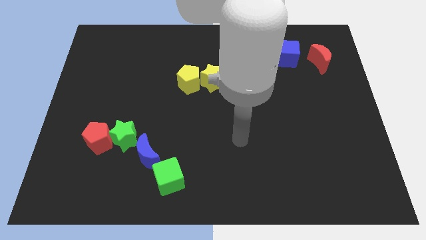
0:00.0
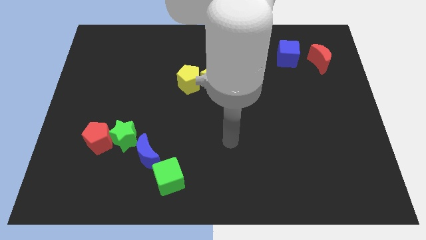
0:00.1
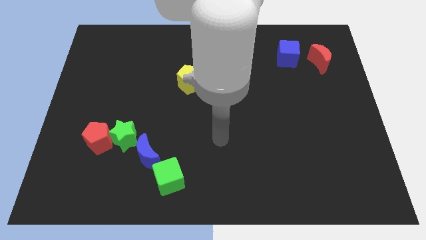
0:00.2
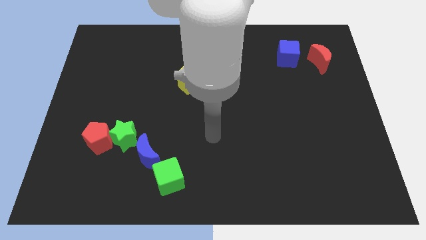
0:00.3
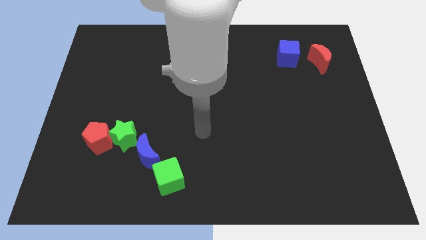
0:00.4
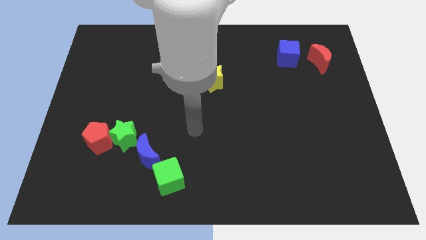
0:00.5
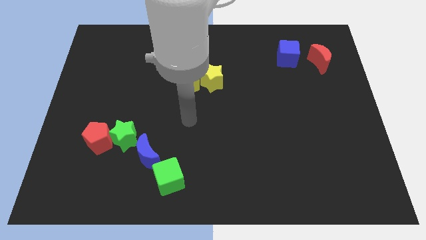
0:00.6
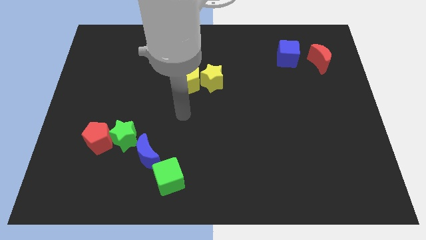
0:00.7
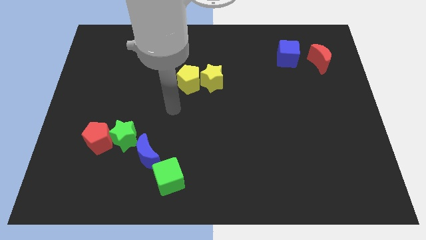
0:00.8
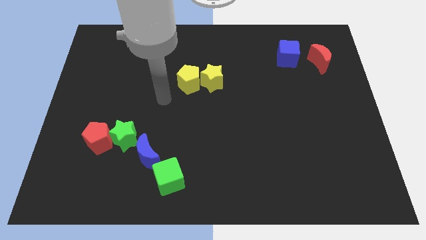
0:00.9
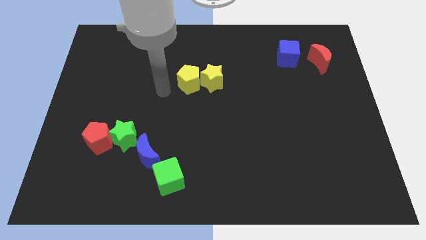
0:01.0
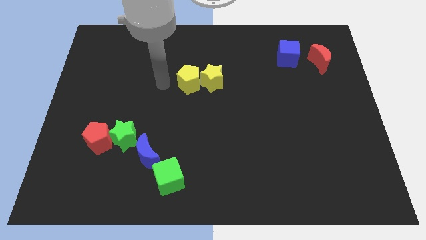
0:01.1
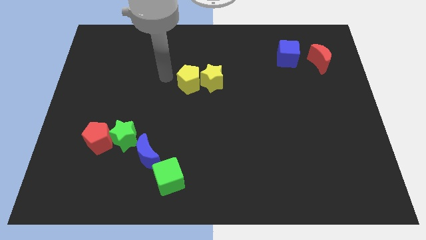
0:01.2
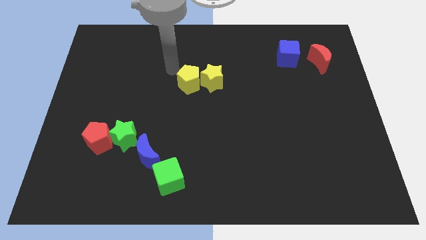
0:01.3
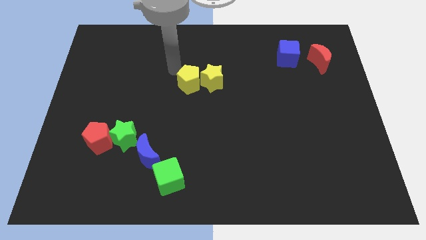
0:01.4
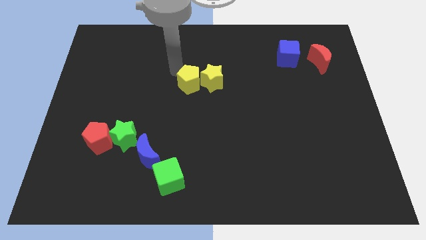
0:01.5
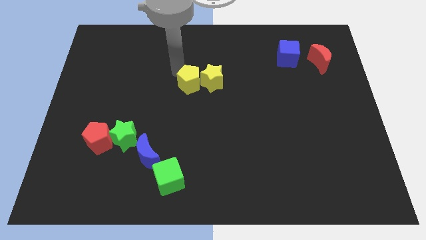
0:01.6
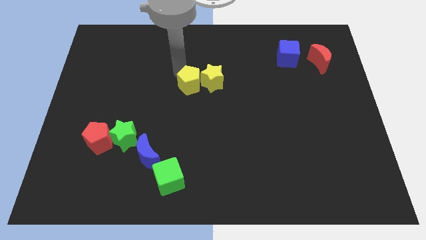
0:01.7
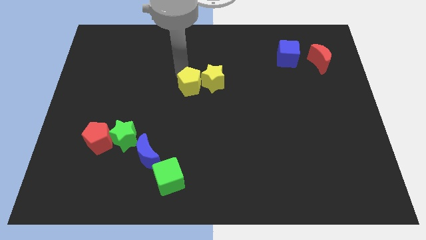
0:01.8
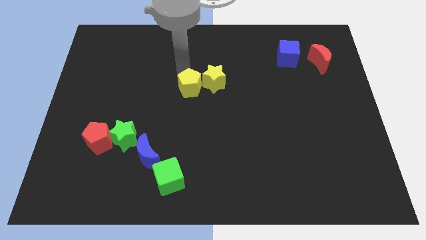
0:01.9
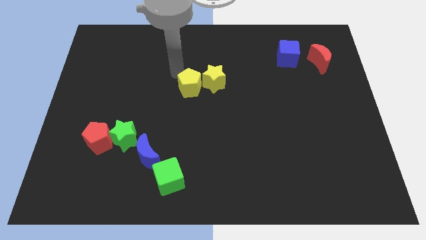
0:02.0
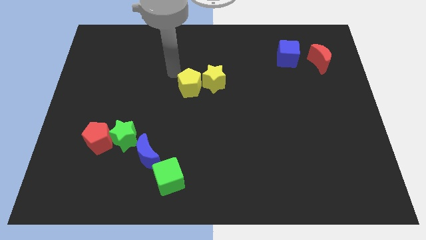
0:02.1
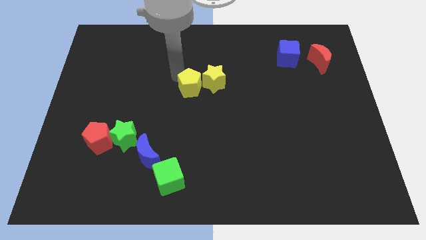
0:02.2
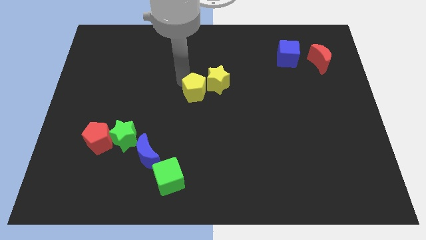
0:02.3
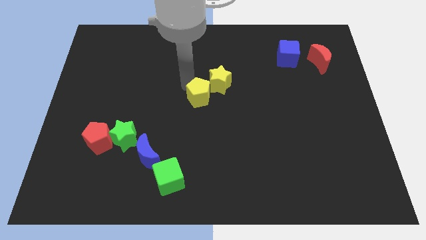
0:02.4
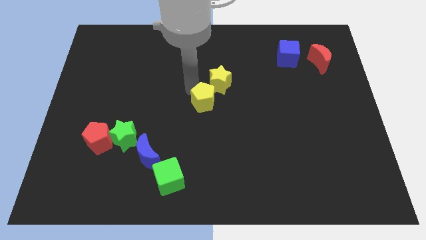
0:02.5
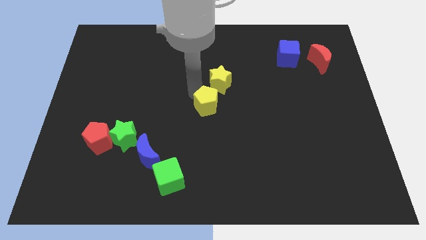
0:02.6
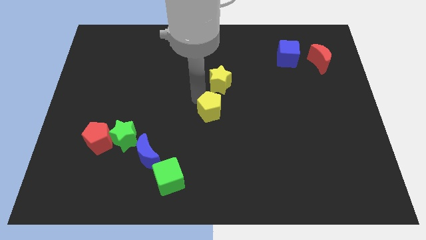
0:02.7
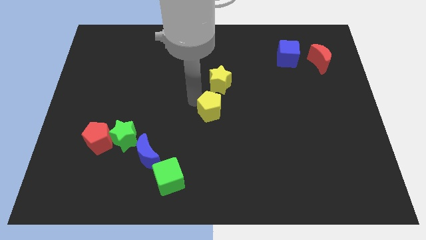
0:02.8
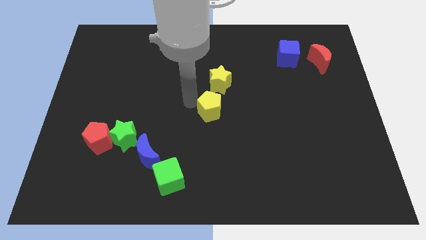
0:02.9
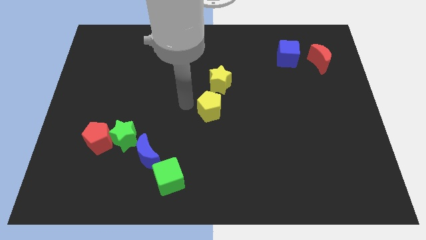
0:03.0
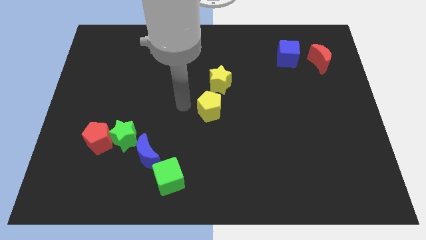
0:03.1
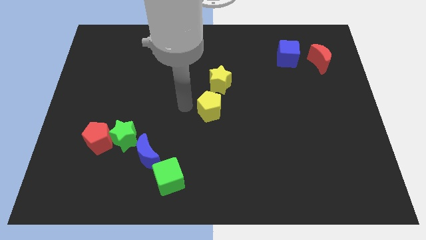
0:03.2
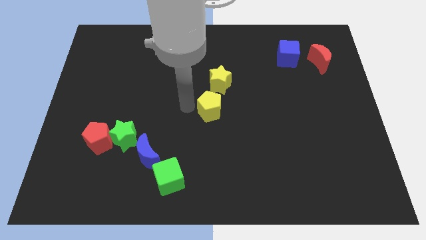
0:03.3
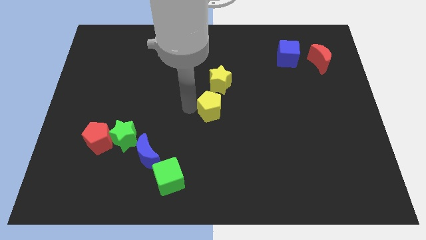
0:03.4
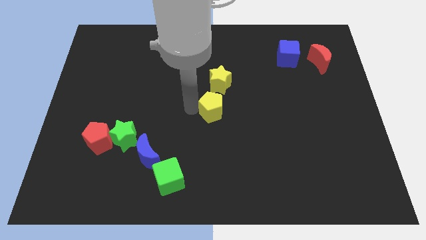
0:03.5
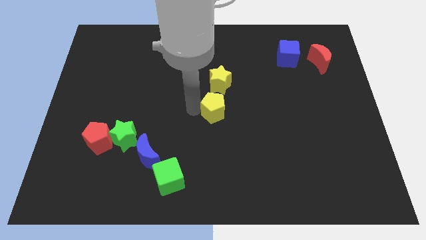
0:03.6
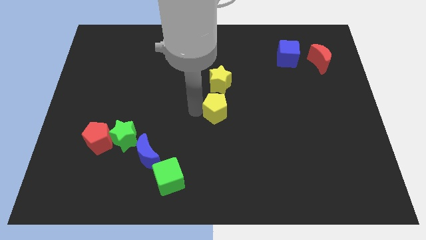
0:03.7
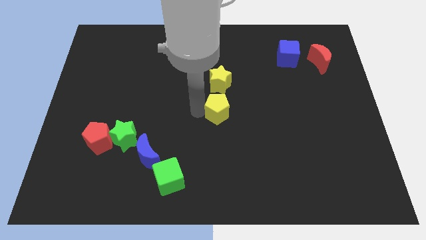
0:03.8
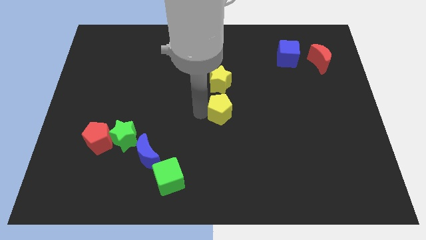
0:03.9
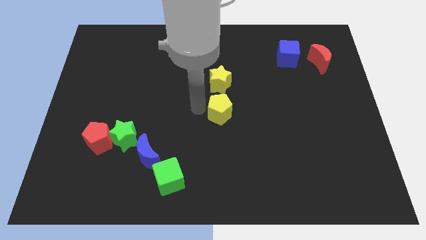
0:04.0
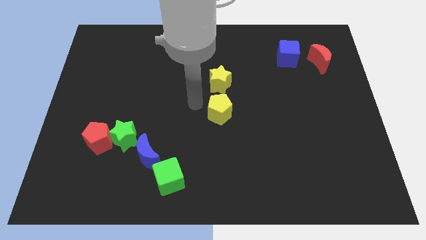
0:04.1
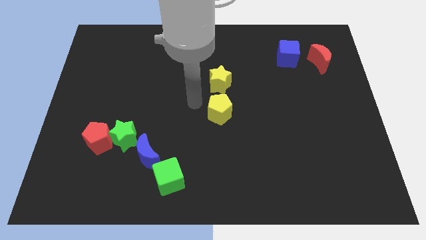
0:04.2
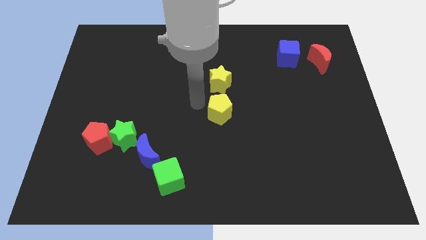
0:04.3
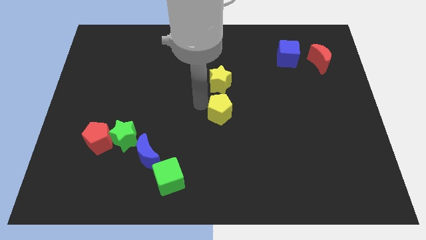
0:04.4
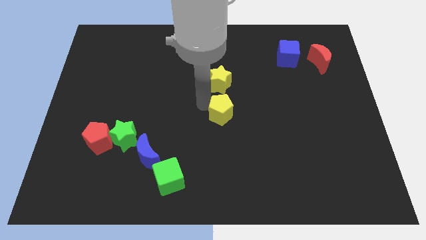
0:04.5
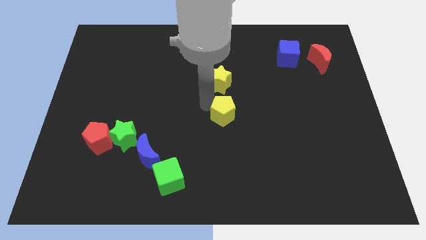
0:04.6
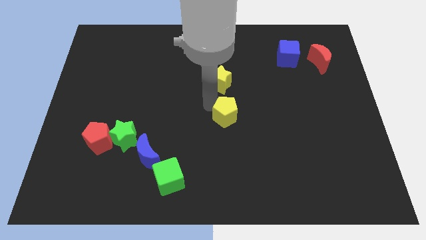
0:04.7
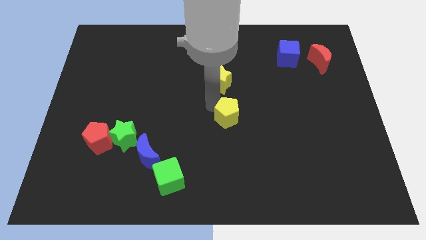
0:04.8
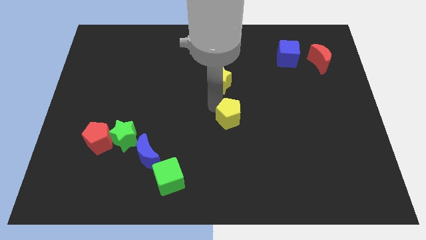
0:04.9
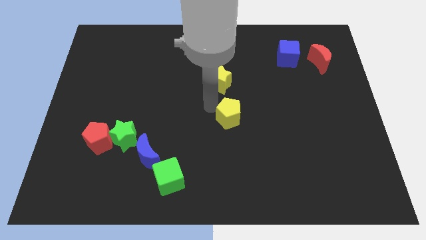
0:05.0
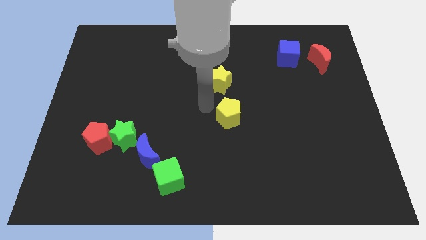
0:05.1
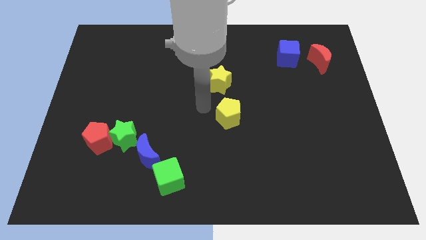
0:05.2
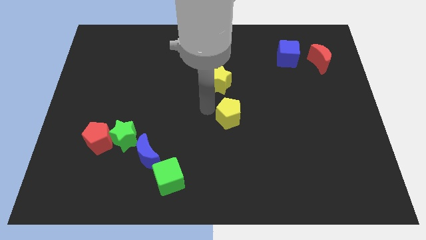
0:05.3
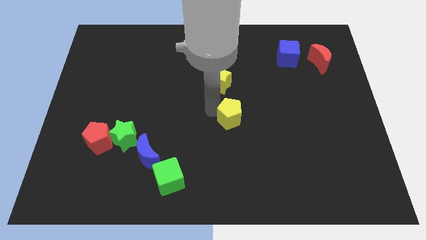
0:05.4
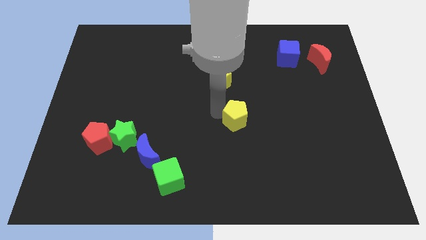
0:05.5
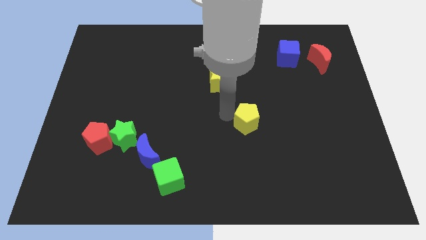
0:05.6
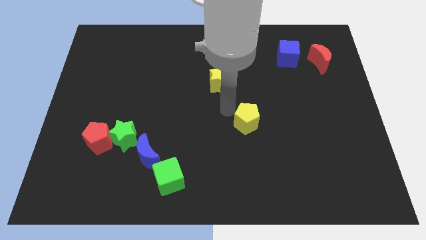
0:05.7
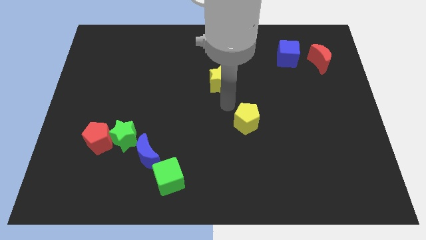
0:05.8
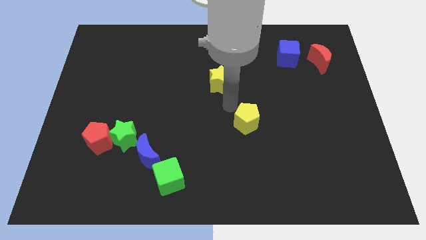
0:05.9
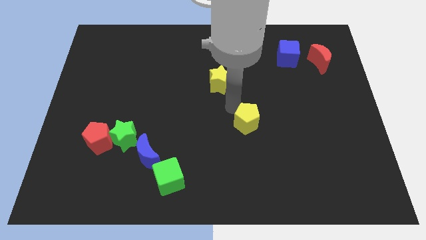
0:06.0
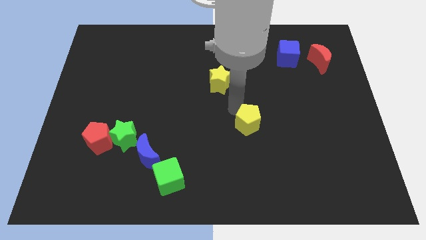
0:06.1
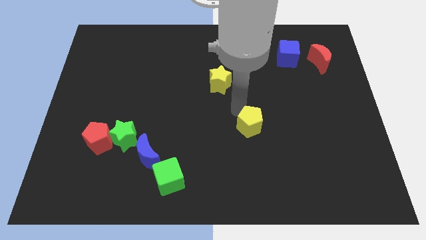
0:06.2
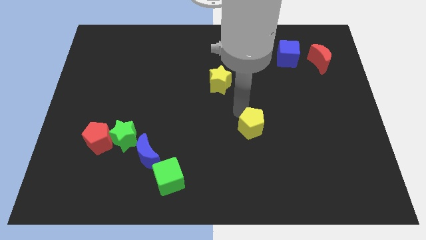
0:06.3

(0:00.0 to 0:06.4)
push the yellow pentagon down and right

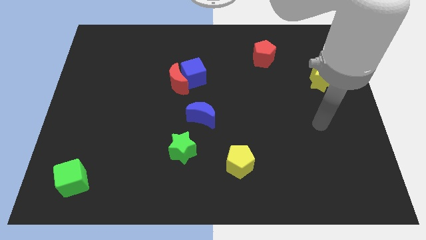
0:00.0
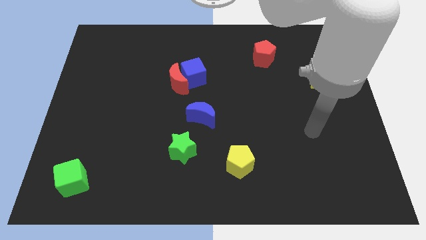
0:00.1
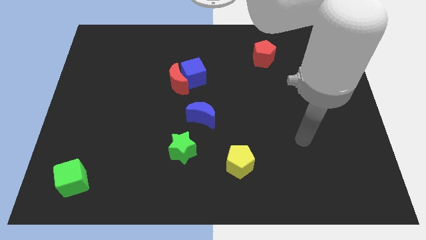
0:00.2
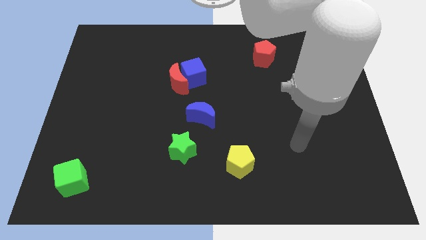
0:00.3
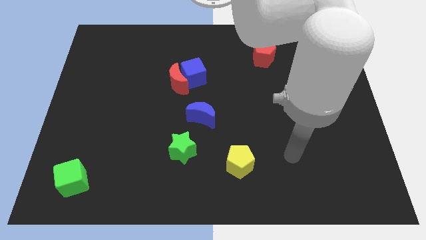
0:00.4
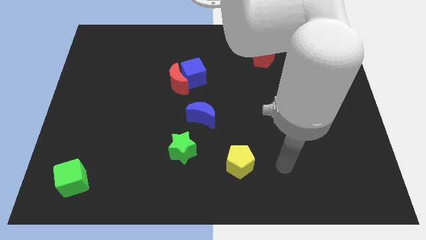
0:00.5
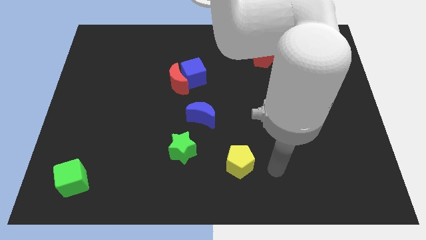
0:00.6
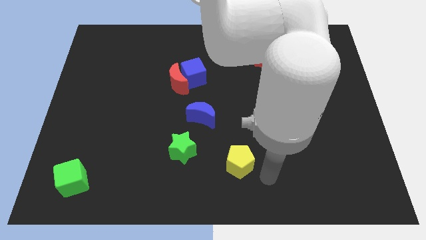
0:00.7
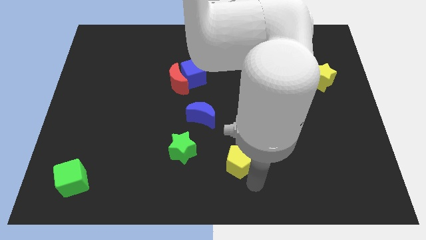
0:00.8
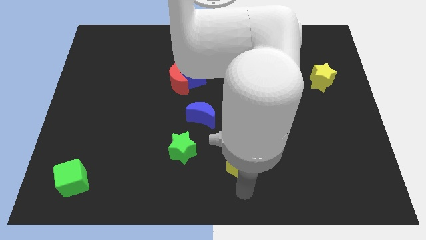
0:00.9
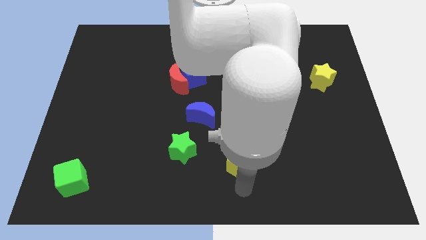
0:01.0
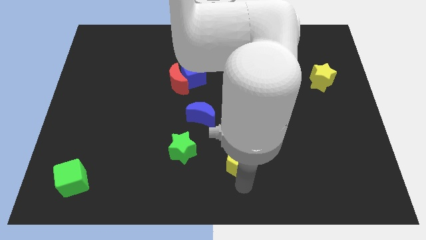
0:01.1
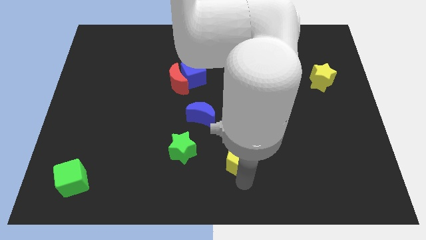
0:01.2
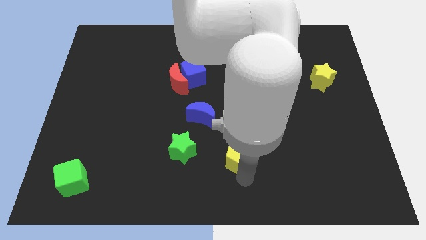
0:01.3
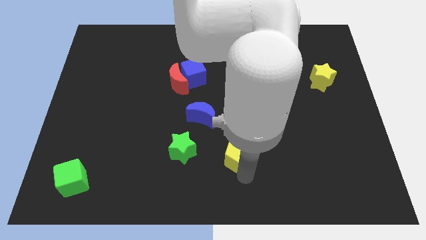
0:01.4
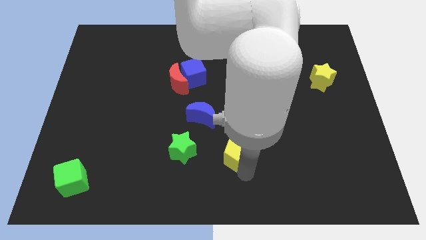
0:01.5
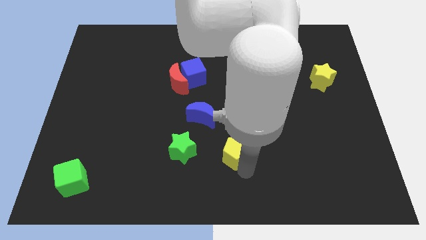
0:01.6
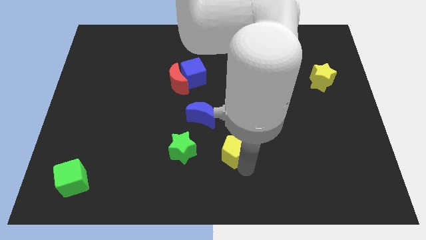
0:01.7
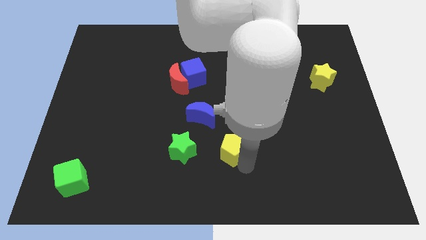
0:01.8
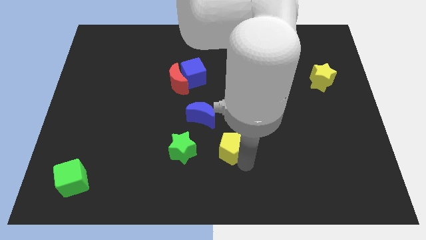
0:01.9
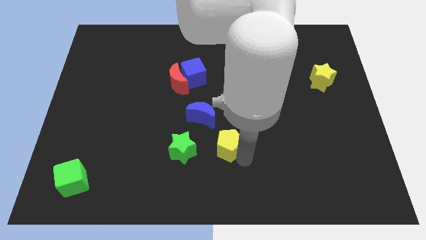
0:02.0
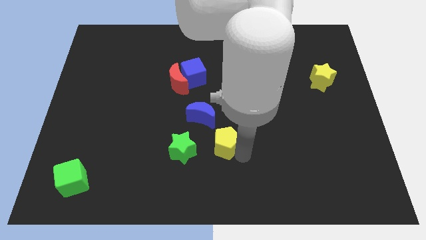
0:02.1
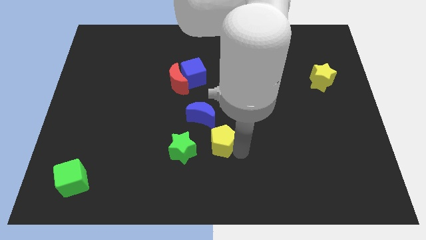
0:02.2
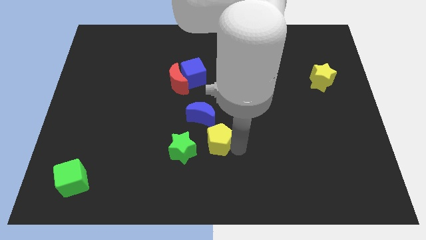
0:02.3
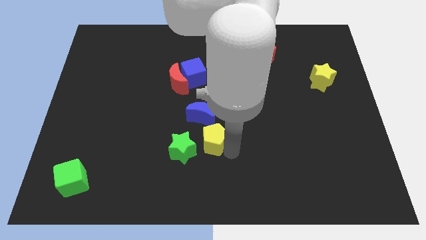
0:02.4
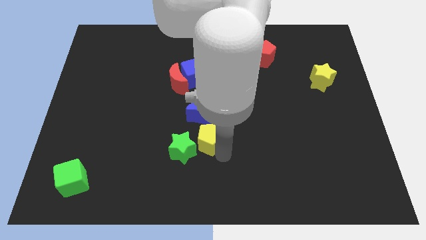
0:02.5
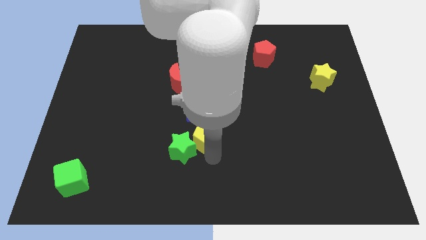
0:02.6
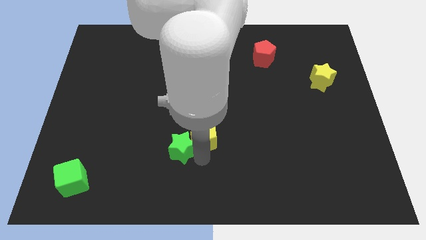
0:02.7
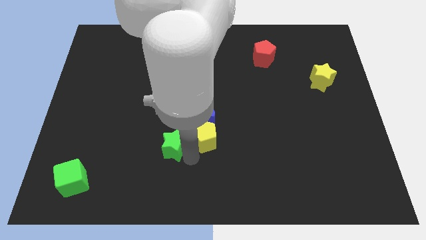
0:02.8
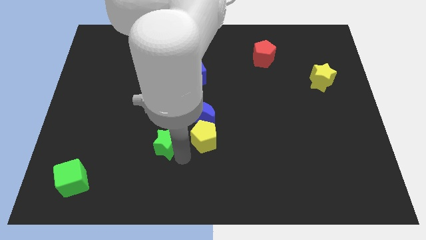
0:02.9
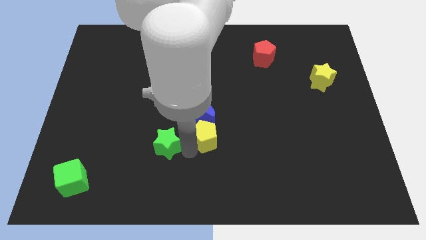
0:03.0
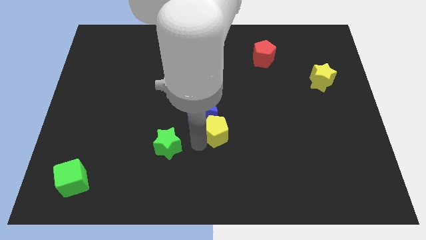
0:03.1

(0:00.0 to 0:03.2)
push the yellow pentagon somewhat up
